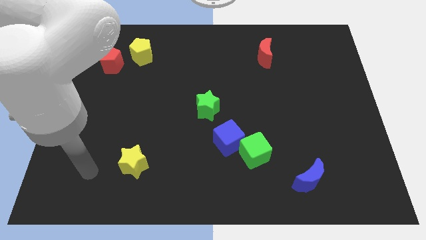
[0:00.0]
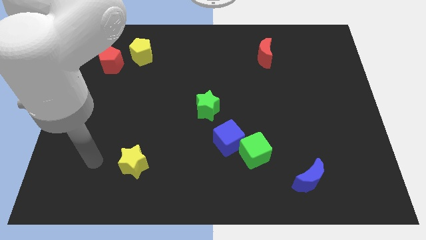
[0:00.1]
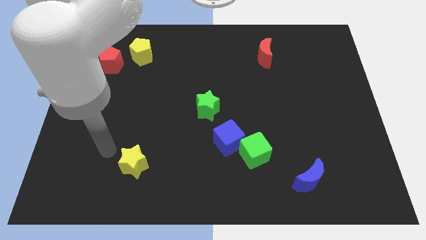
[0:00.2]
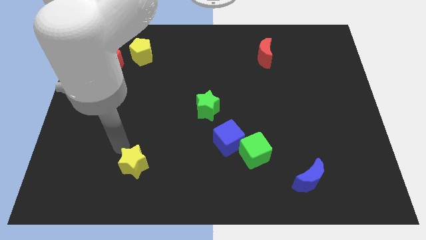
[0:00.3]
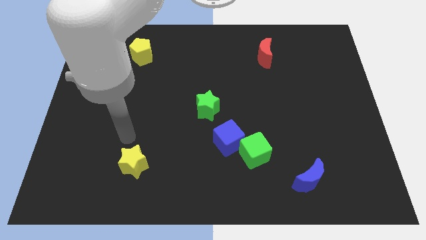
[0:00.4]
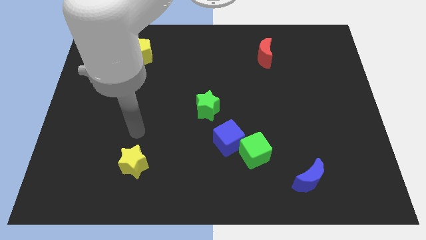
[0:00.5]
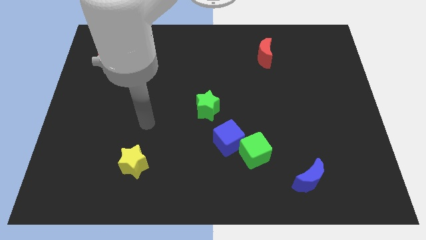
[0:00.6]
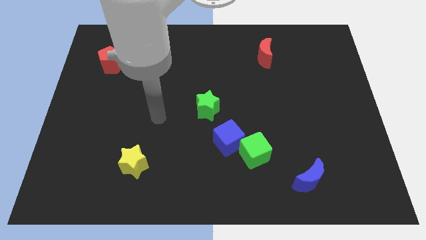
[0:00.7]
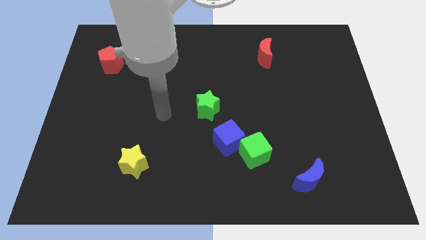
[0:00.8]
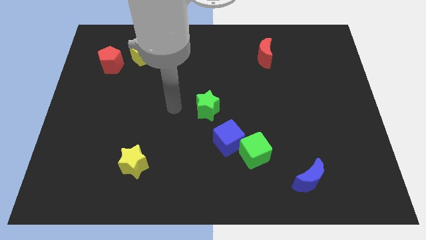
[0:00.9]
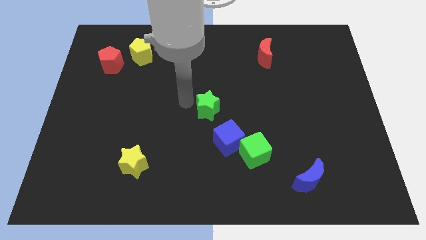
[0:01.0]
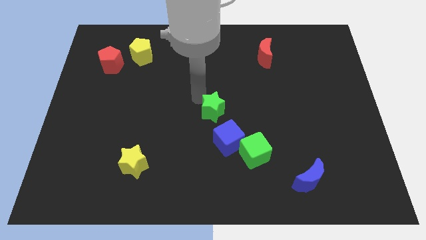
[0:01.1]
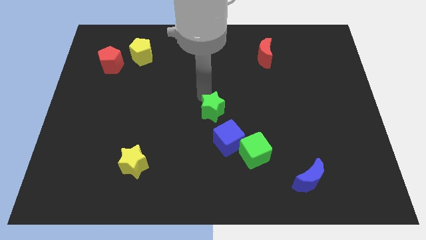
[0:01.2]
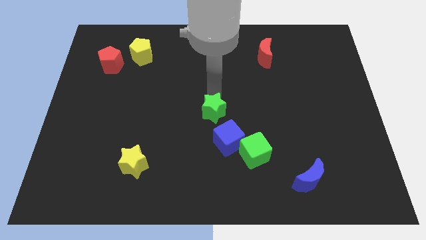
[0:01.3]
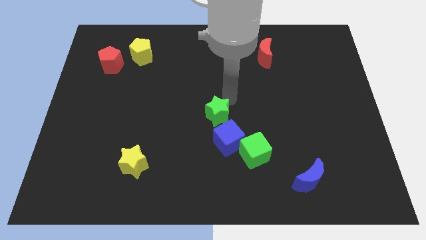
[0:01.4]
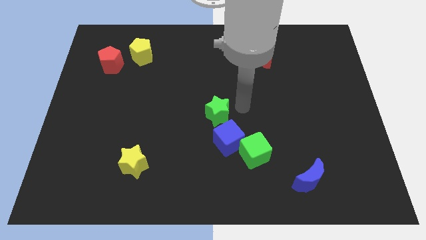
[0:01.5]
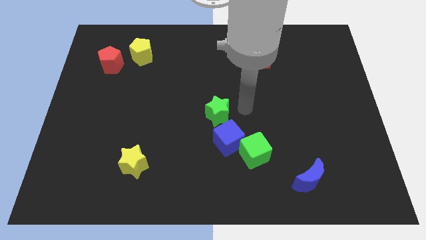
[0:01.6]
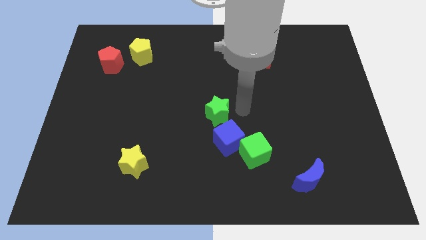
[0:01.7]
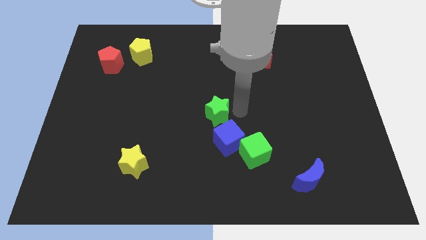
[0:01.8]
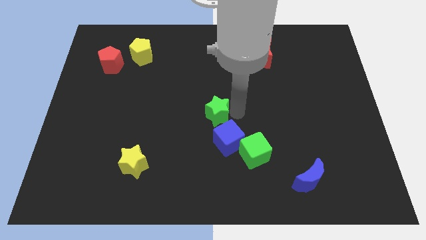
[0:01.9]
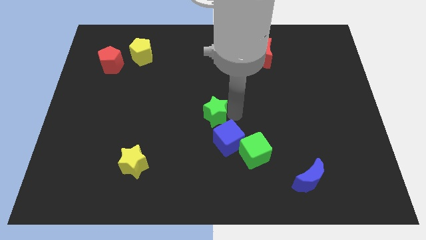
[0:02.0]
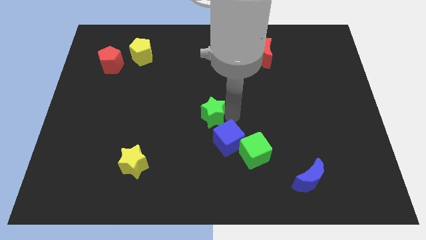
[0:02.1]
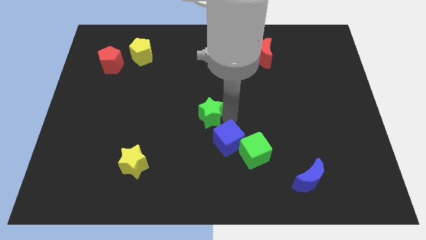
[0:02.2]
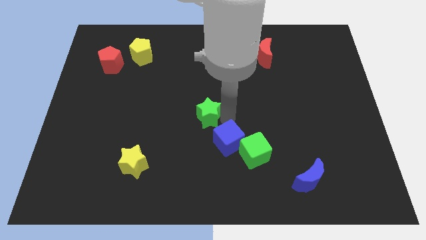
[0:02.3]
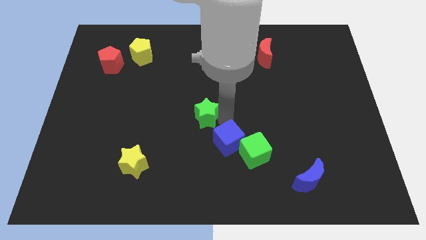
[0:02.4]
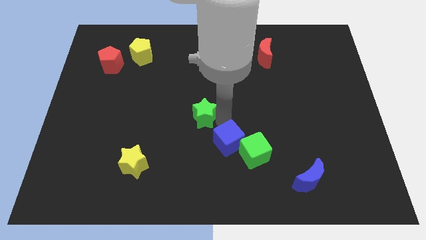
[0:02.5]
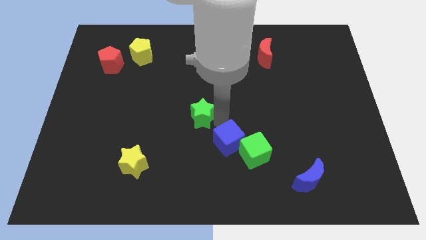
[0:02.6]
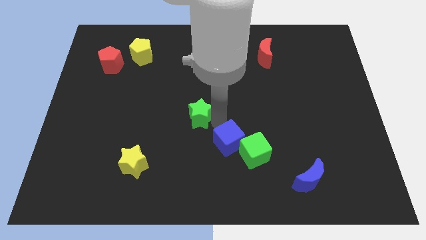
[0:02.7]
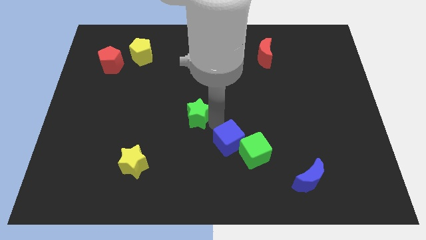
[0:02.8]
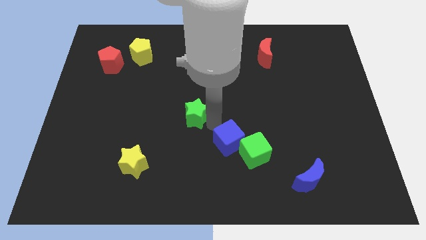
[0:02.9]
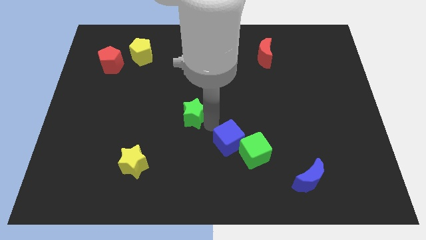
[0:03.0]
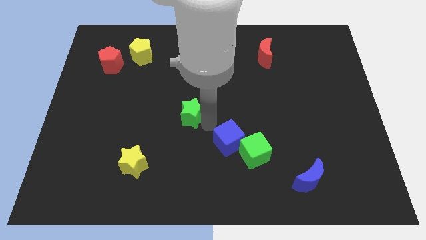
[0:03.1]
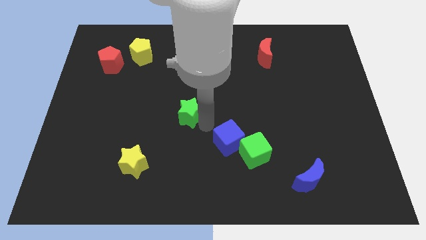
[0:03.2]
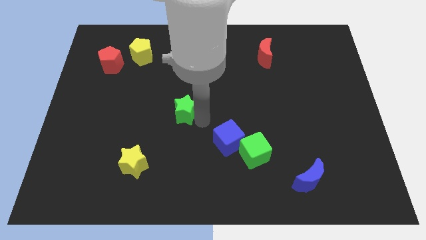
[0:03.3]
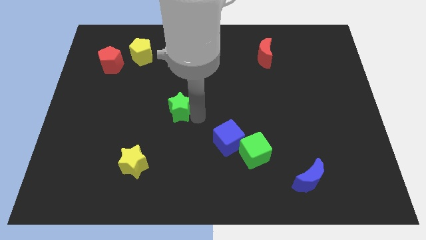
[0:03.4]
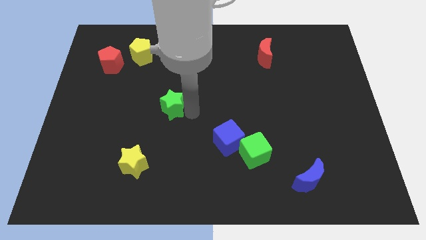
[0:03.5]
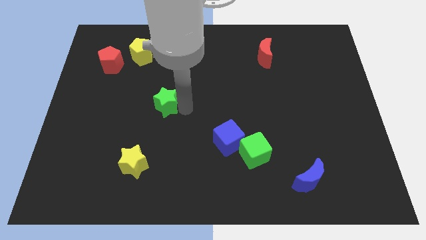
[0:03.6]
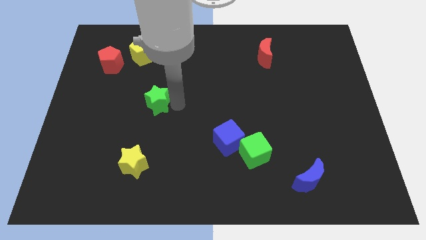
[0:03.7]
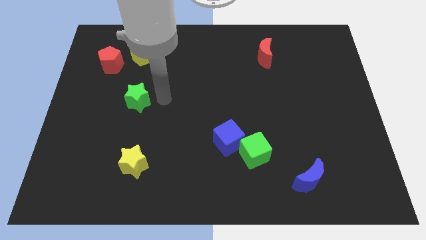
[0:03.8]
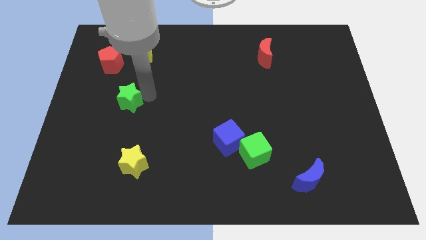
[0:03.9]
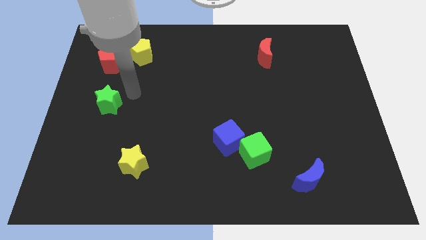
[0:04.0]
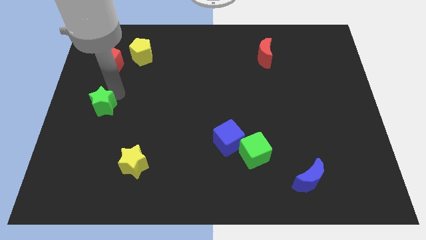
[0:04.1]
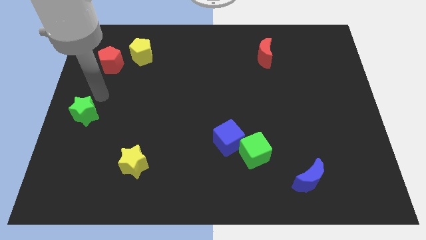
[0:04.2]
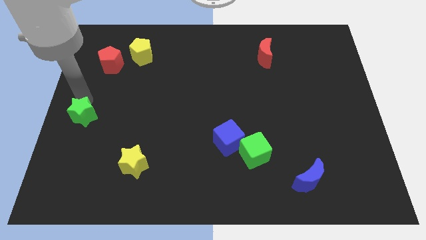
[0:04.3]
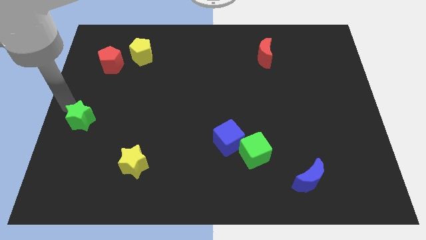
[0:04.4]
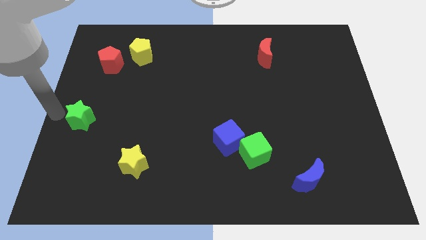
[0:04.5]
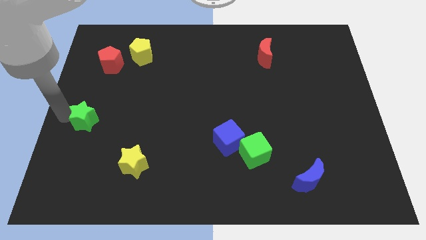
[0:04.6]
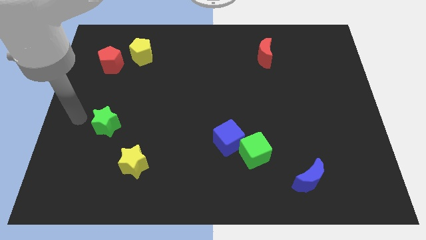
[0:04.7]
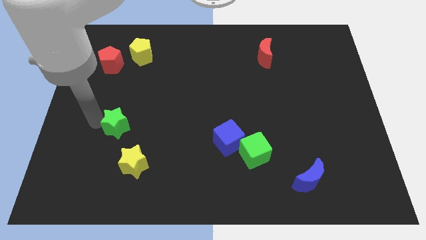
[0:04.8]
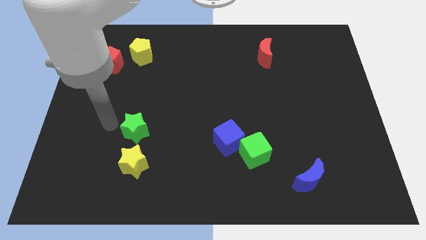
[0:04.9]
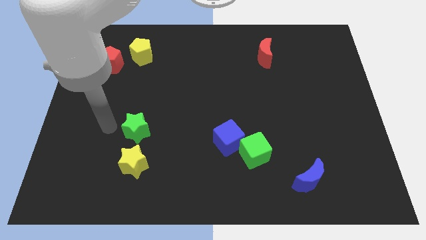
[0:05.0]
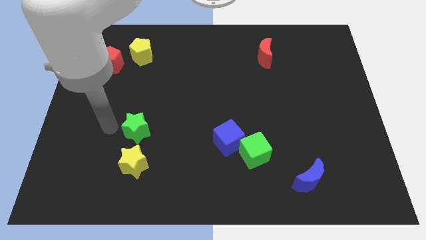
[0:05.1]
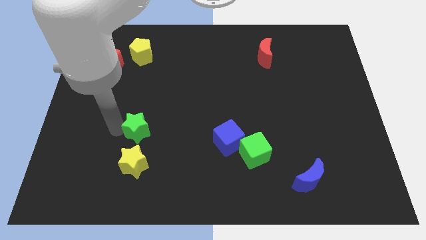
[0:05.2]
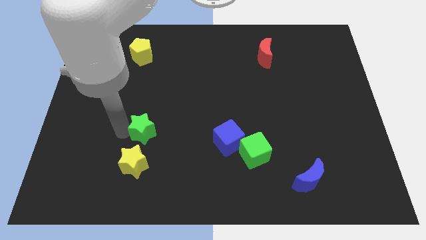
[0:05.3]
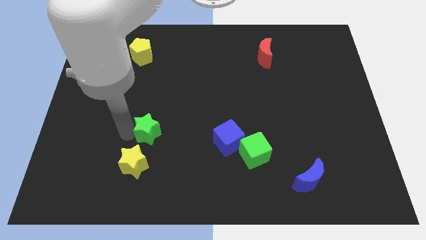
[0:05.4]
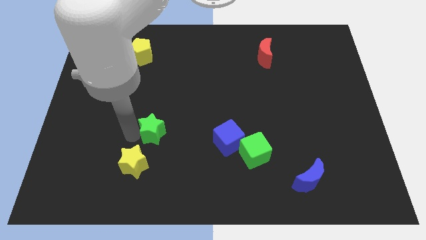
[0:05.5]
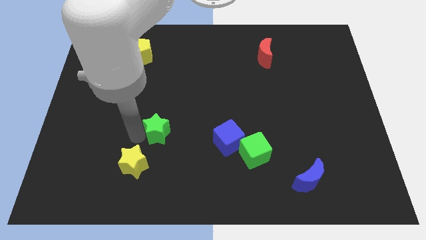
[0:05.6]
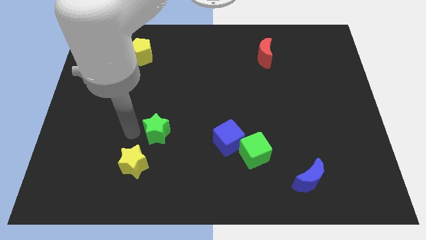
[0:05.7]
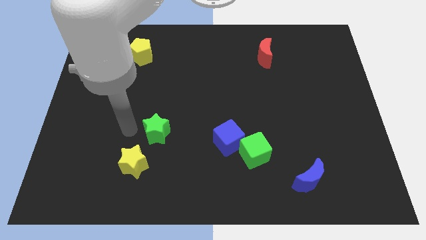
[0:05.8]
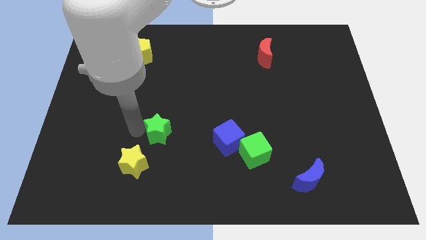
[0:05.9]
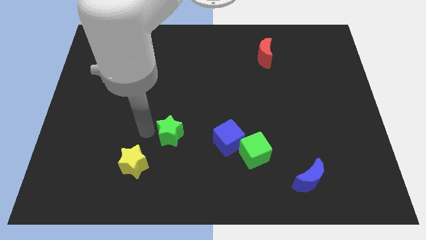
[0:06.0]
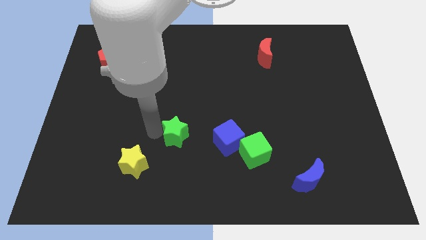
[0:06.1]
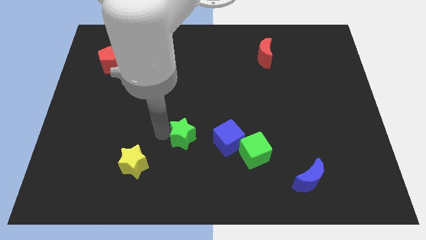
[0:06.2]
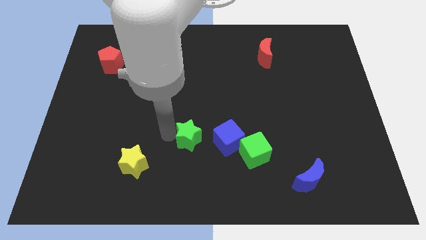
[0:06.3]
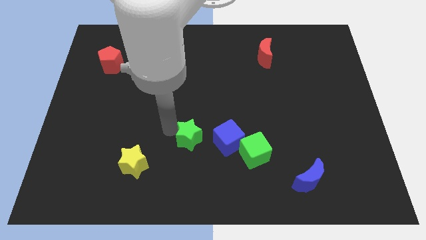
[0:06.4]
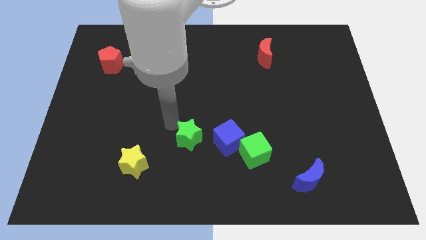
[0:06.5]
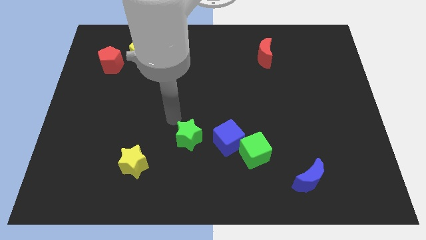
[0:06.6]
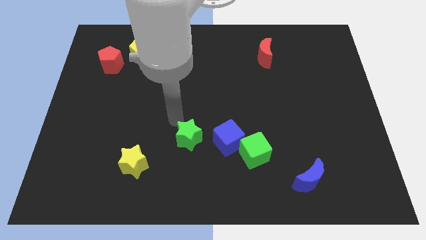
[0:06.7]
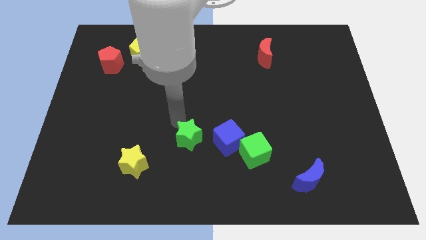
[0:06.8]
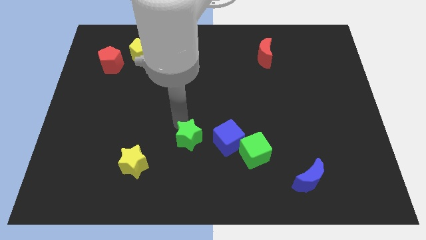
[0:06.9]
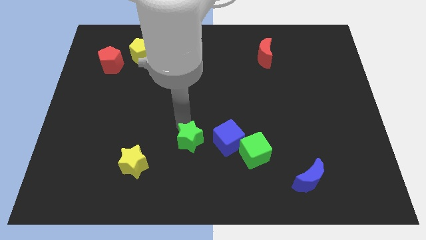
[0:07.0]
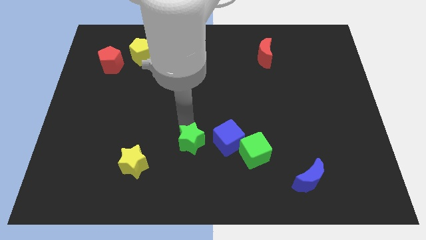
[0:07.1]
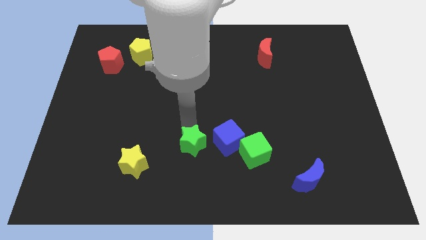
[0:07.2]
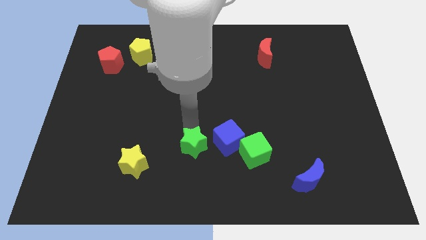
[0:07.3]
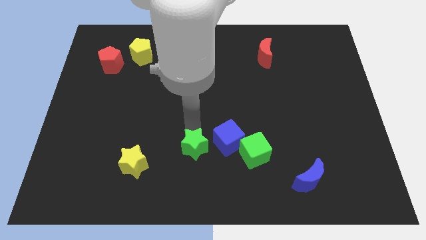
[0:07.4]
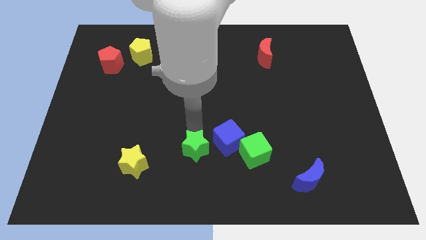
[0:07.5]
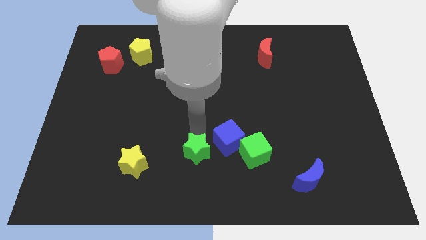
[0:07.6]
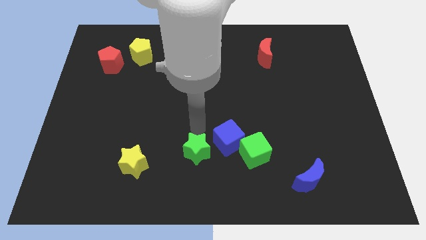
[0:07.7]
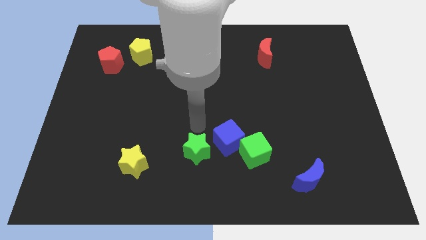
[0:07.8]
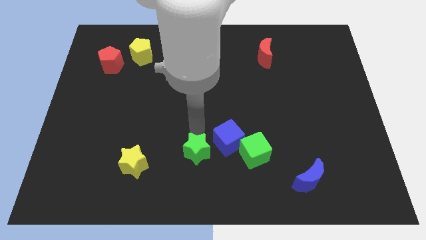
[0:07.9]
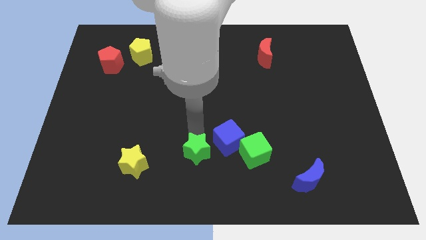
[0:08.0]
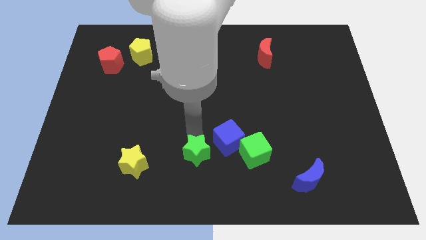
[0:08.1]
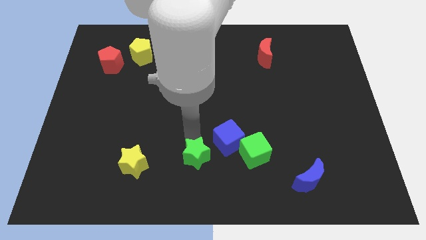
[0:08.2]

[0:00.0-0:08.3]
put the green star to the bottom side
